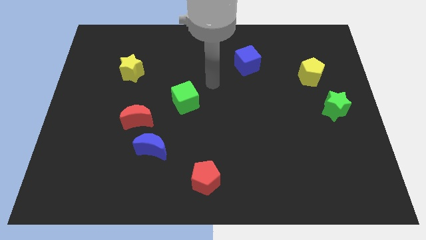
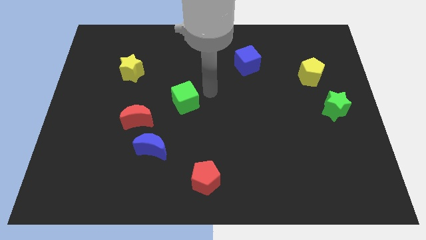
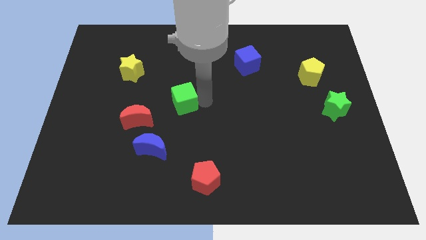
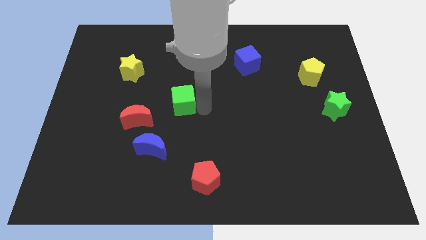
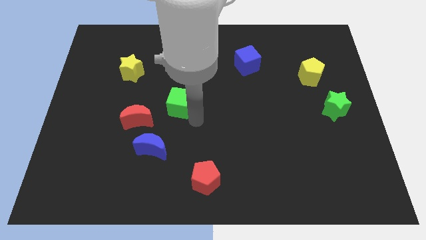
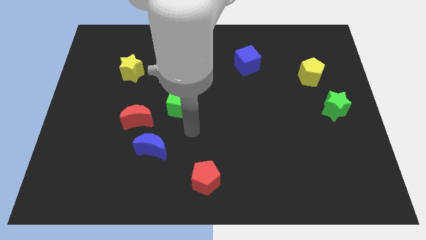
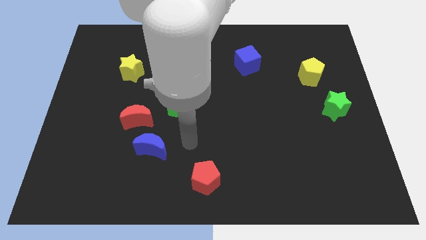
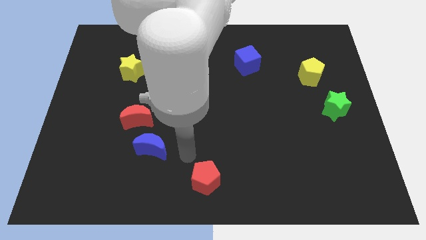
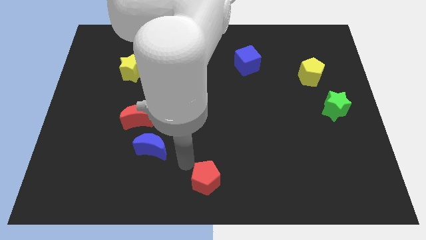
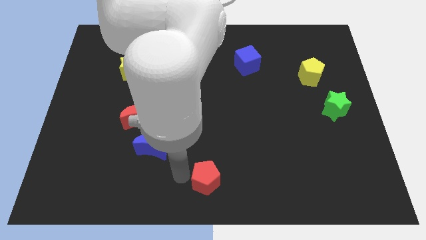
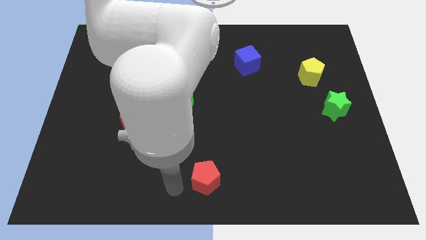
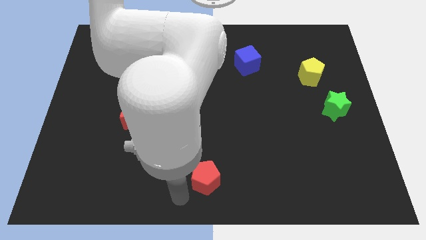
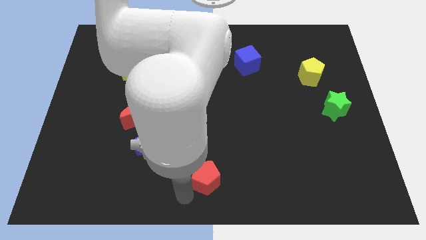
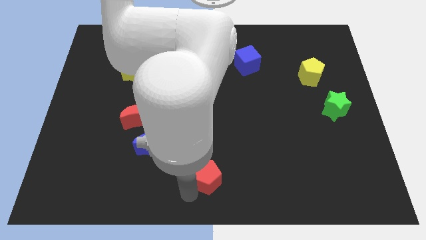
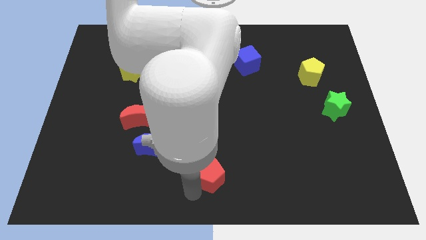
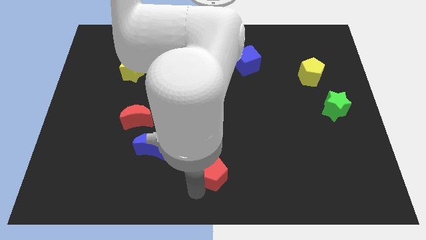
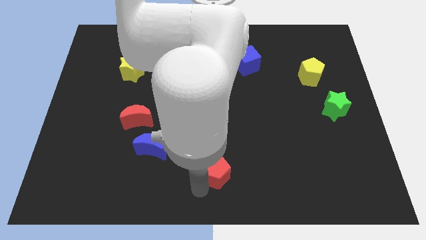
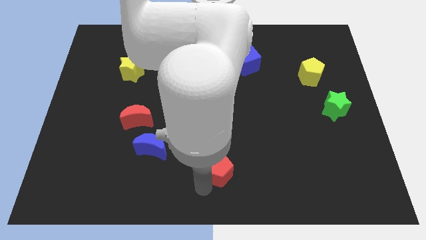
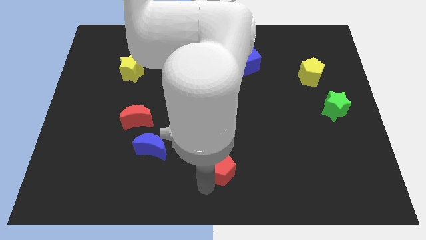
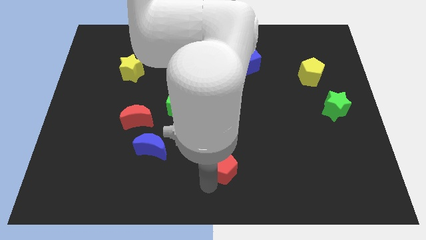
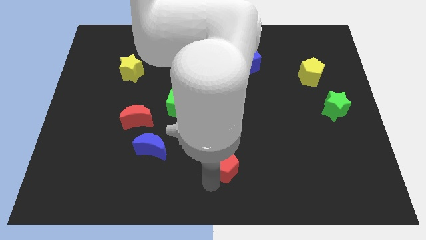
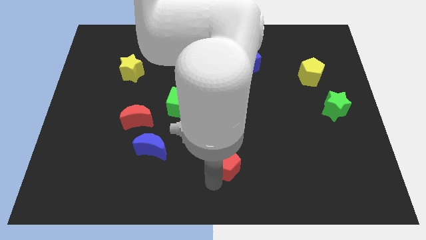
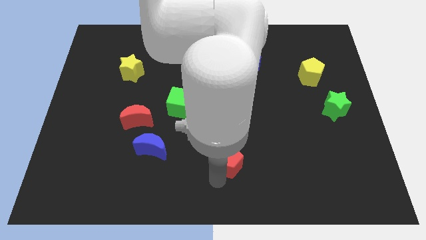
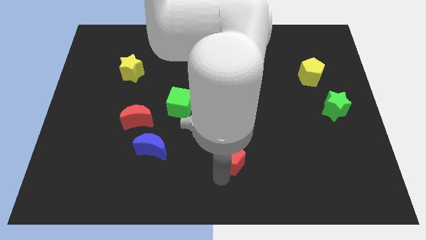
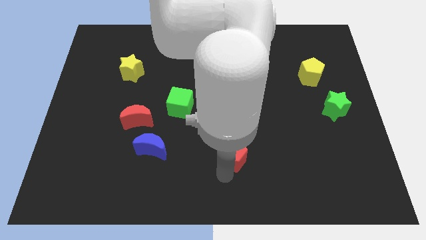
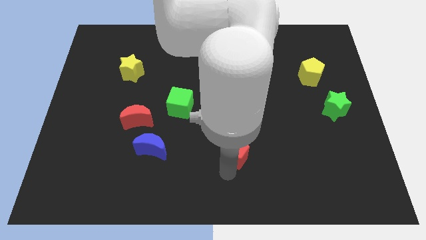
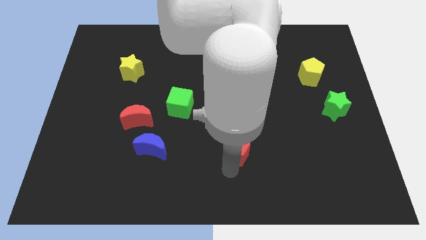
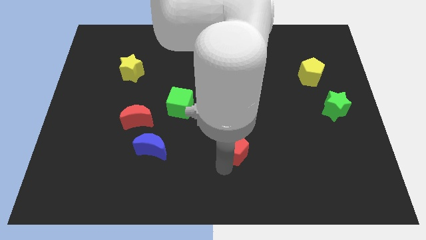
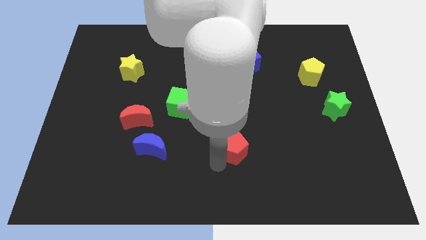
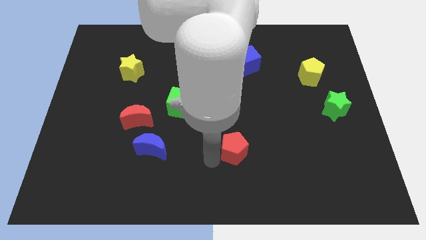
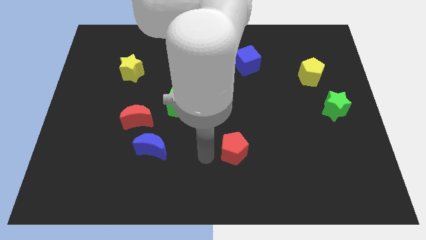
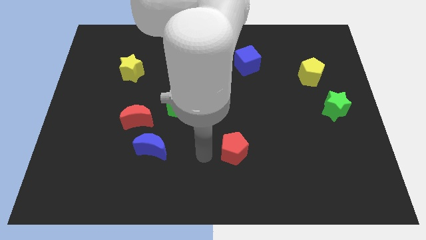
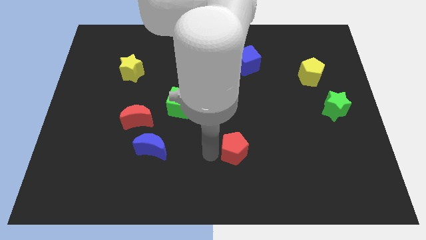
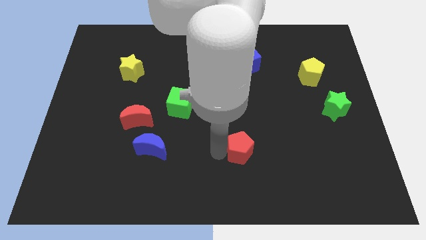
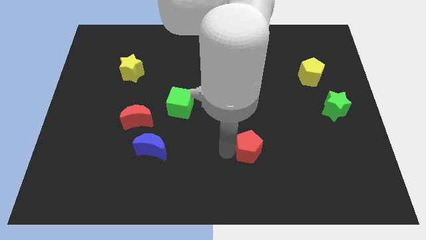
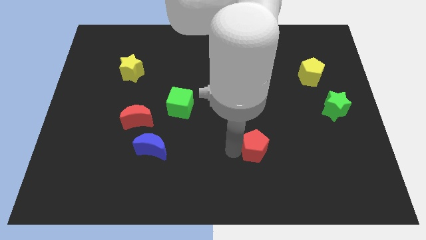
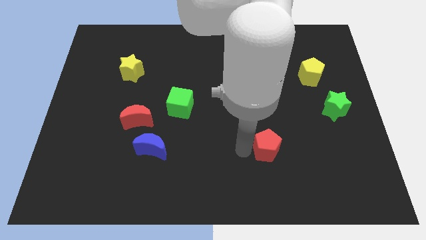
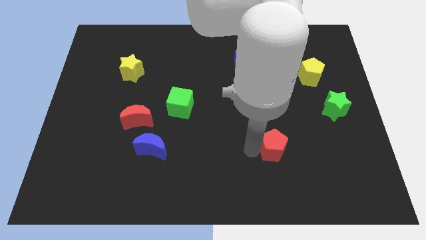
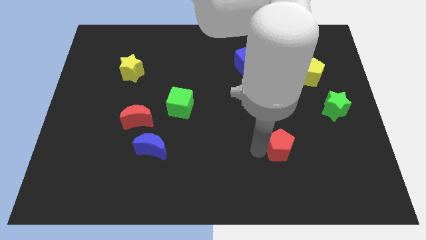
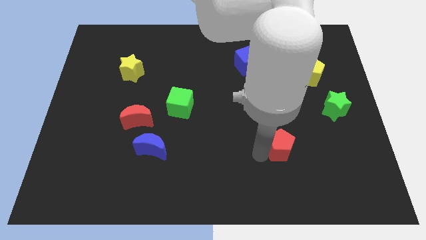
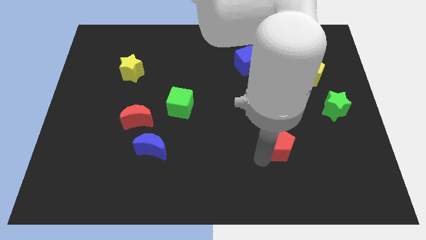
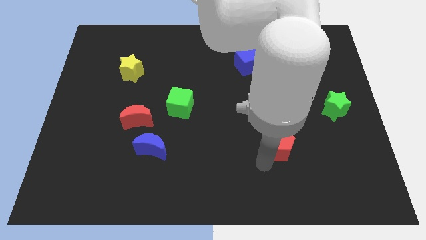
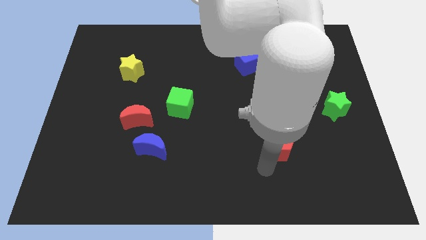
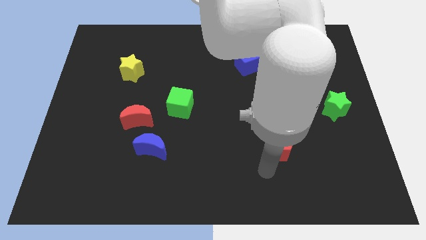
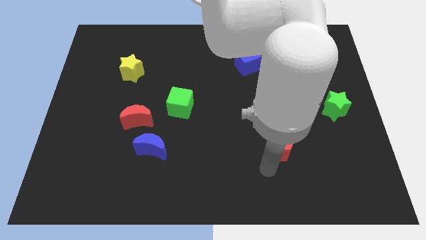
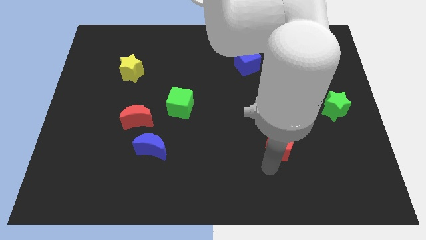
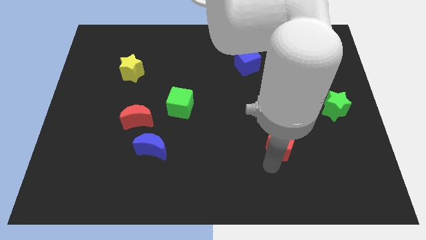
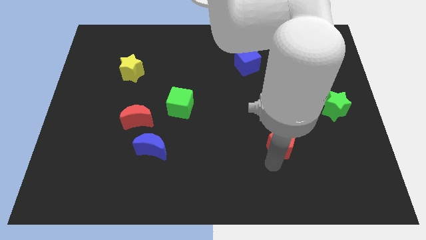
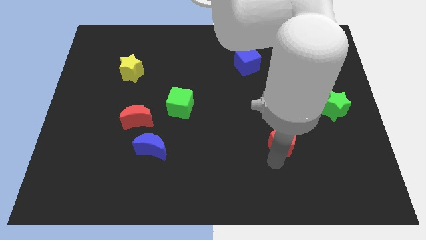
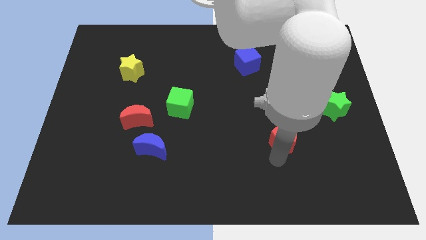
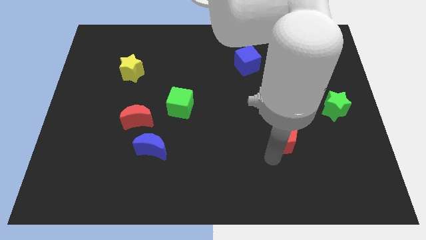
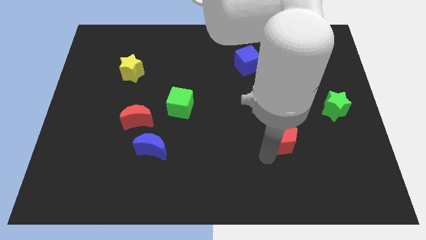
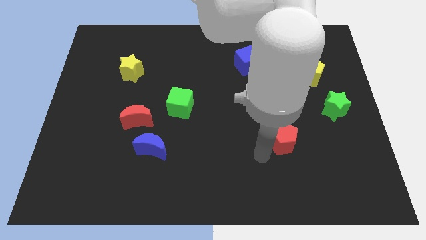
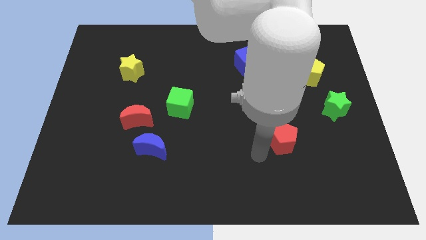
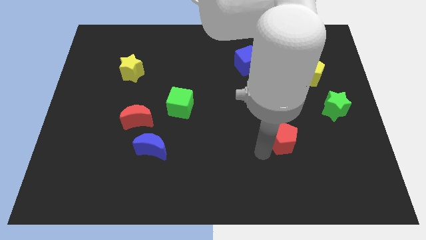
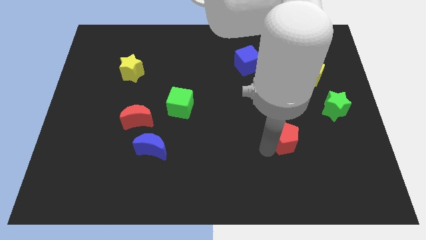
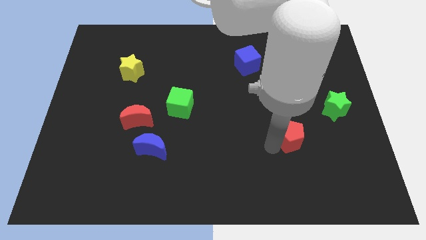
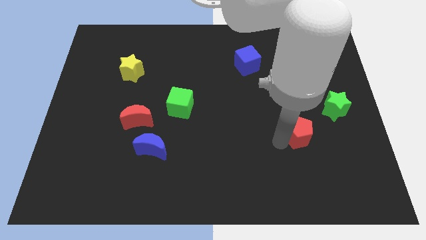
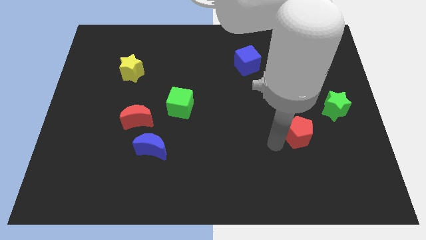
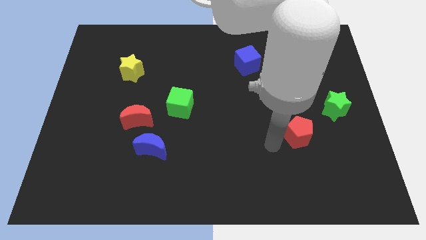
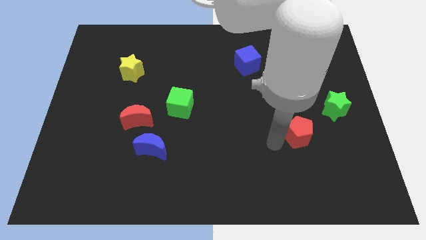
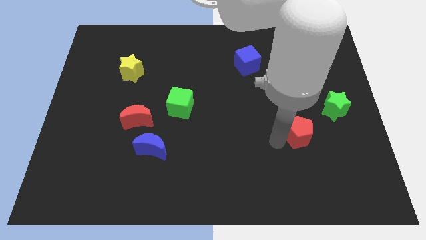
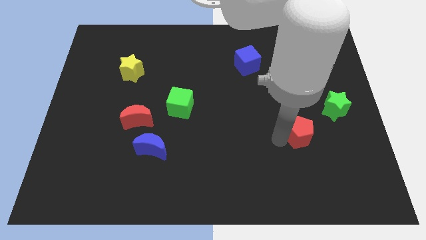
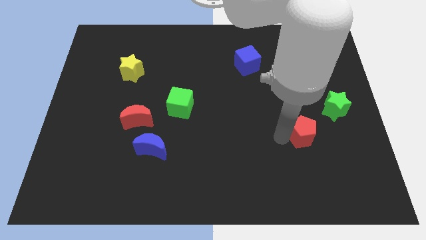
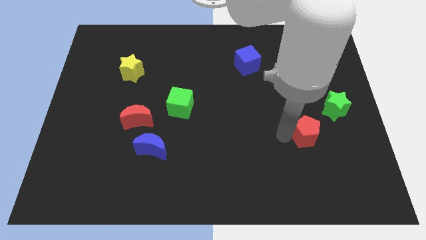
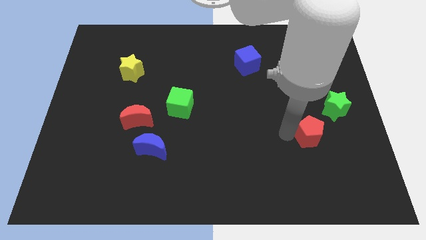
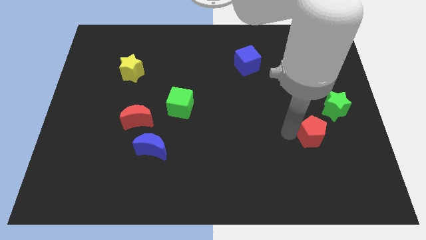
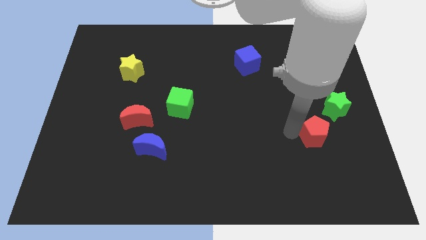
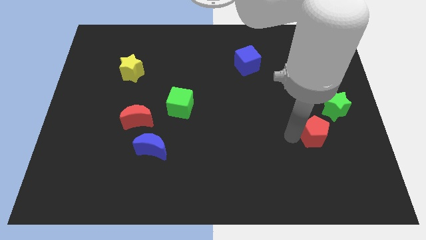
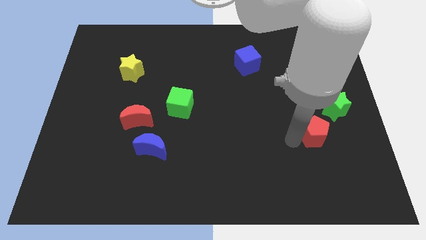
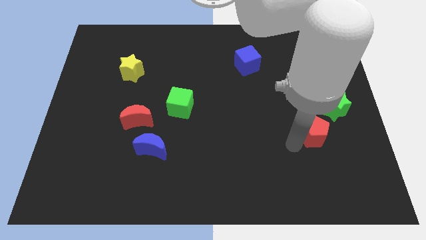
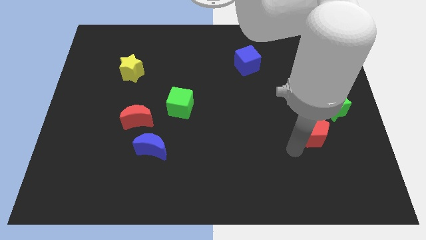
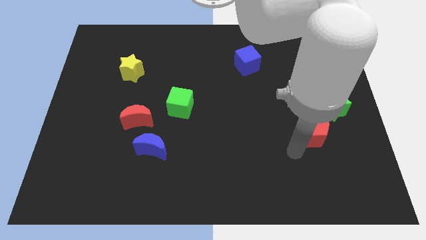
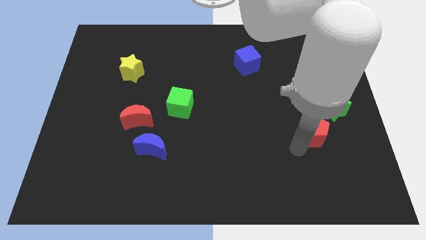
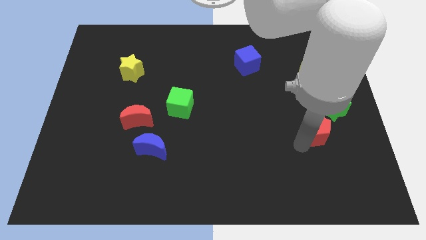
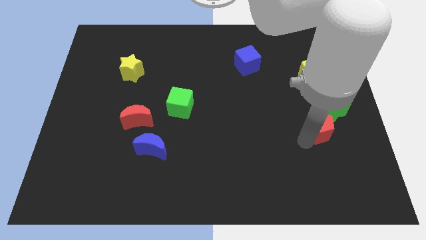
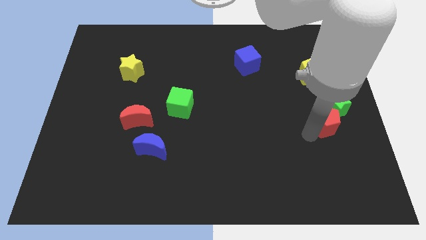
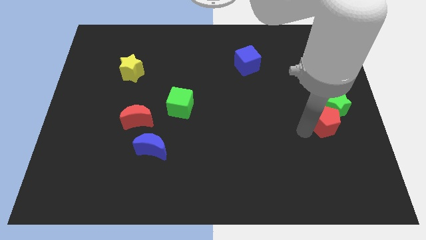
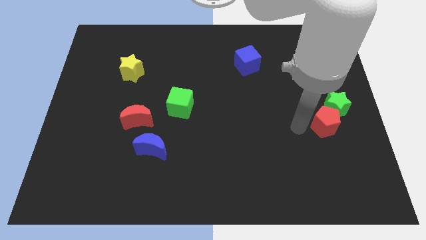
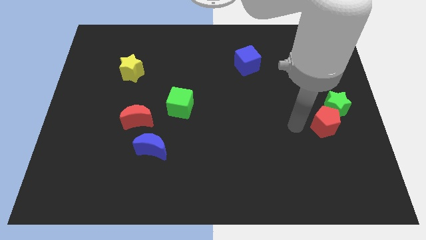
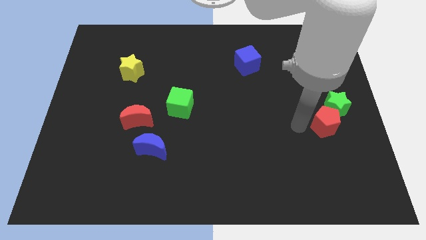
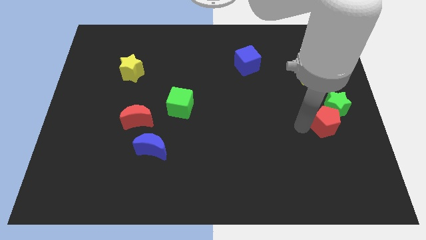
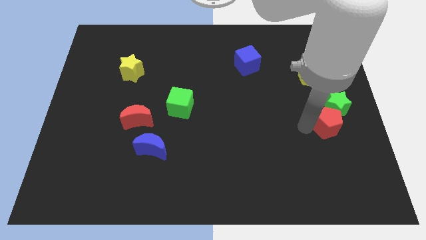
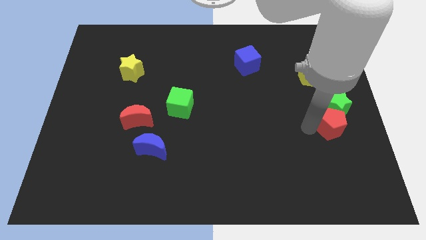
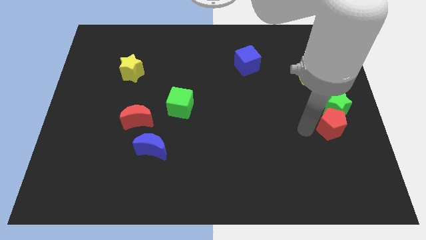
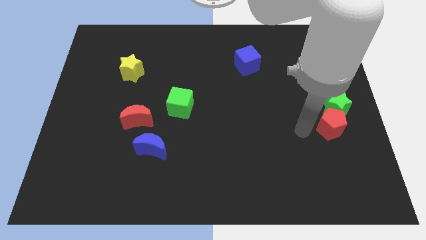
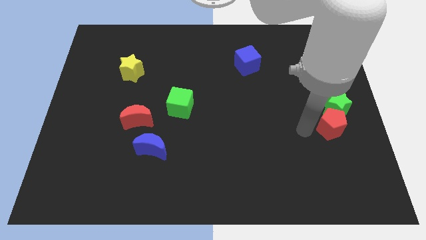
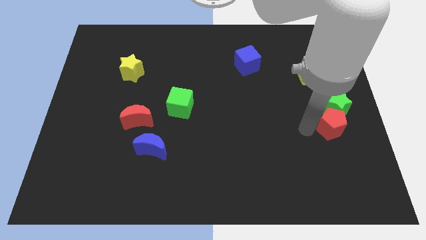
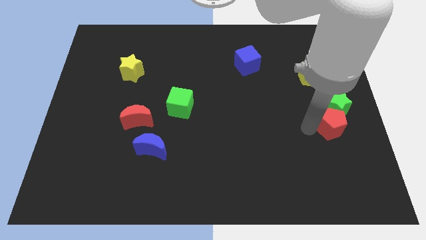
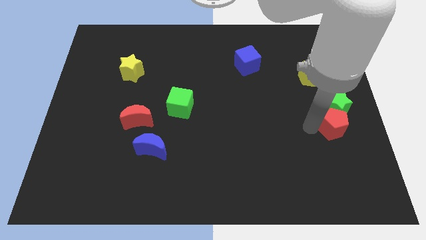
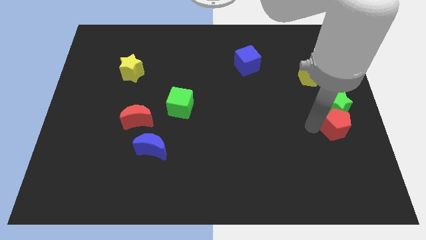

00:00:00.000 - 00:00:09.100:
move the red pentagon to the right side of the board
